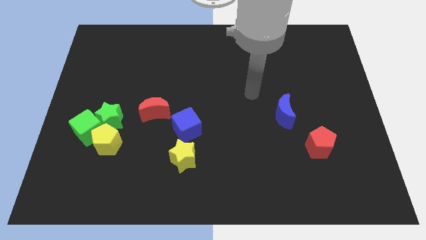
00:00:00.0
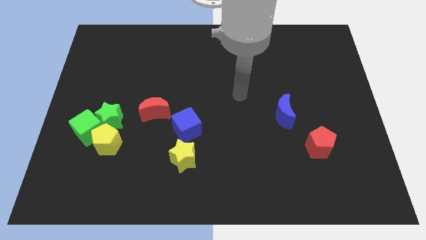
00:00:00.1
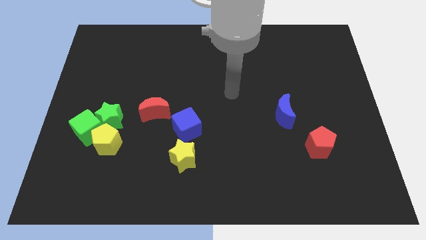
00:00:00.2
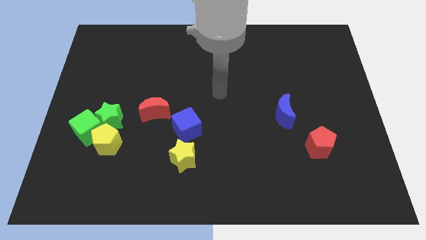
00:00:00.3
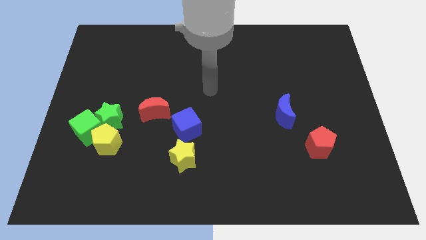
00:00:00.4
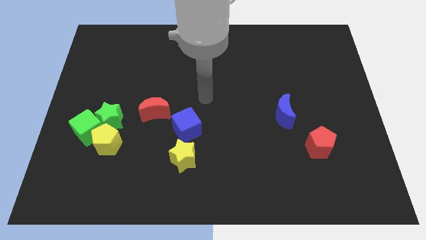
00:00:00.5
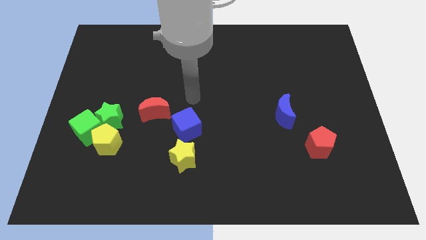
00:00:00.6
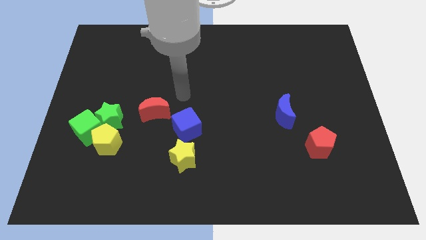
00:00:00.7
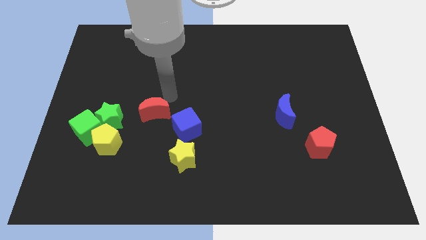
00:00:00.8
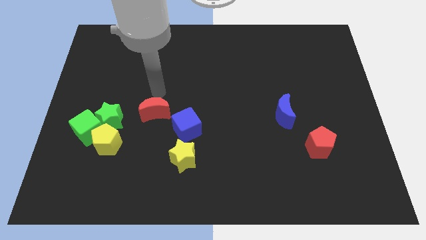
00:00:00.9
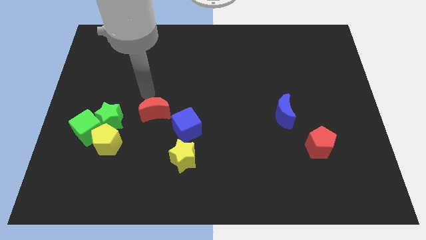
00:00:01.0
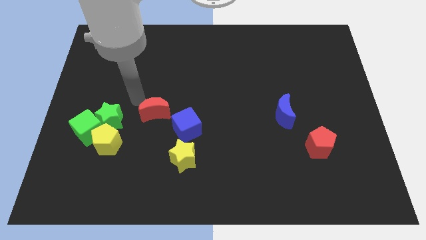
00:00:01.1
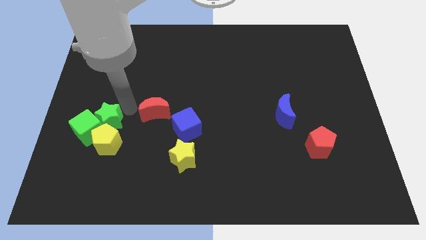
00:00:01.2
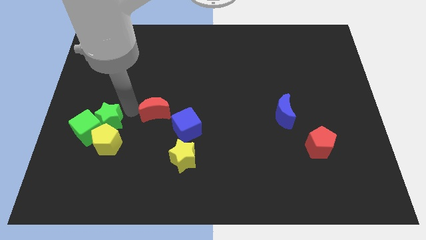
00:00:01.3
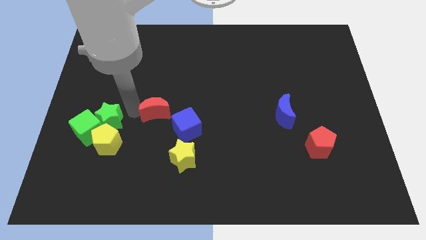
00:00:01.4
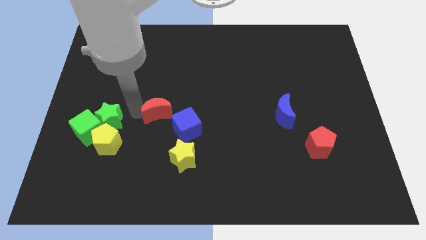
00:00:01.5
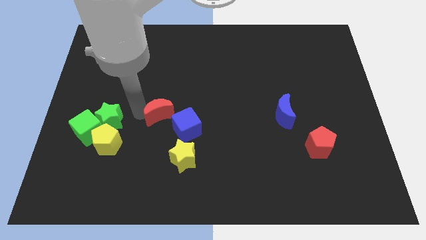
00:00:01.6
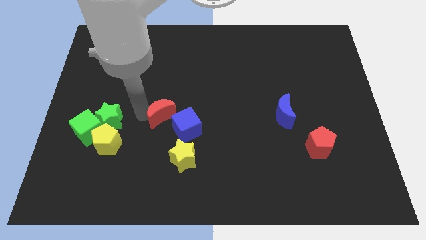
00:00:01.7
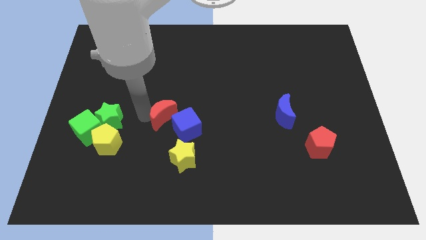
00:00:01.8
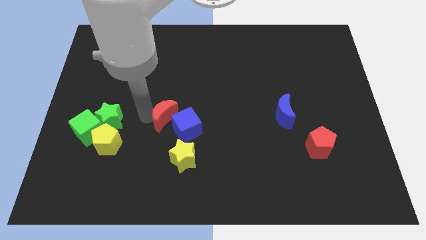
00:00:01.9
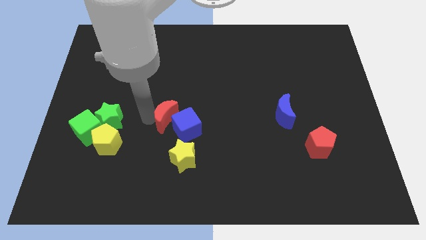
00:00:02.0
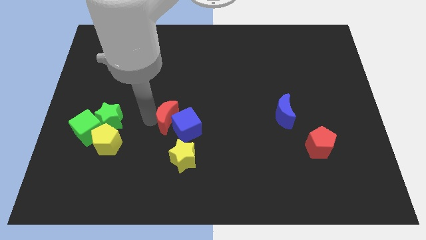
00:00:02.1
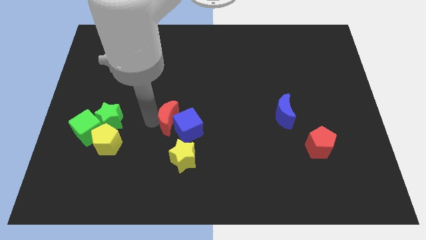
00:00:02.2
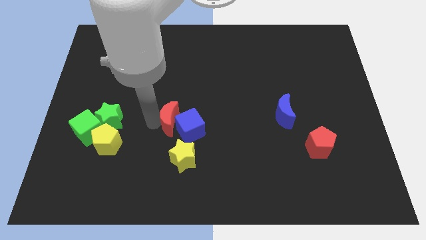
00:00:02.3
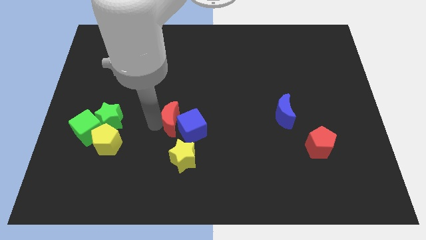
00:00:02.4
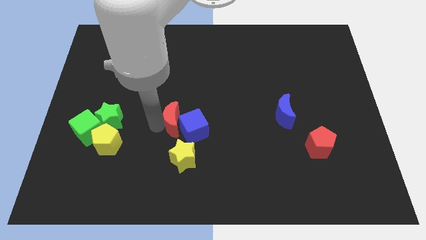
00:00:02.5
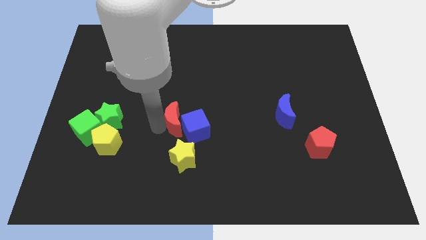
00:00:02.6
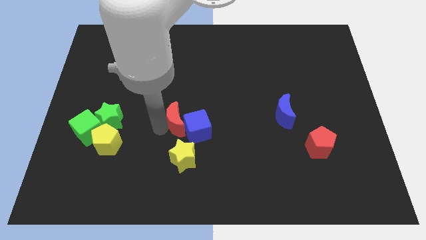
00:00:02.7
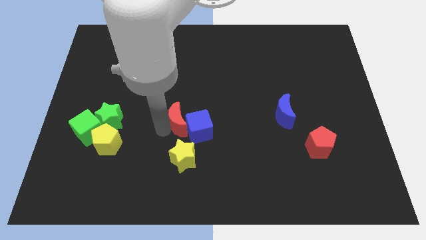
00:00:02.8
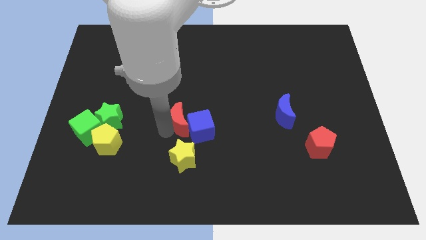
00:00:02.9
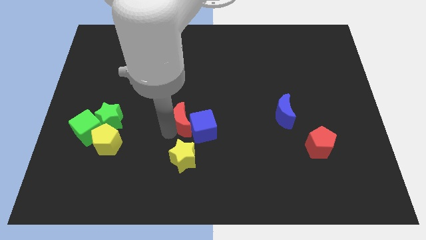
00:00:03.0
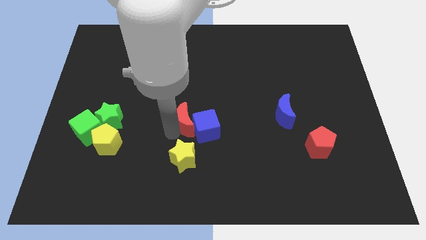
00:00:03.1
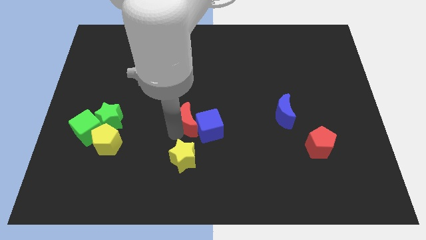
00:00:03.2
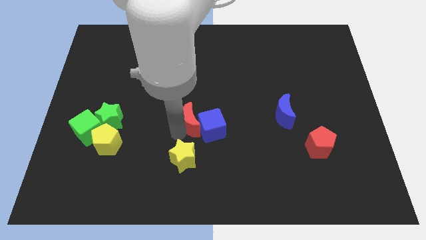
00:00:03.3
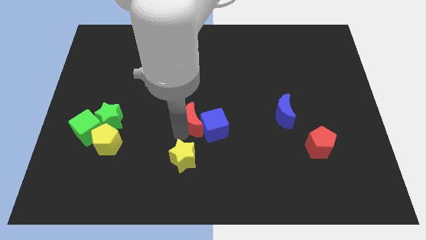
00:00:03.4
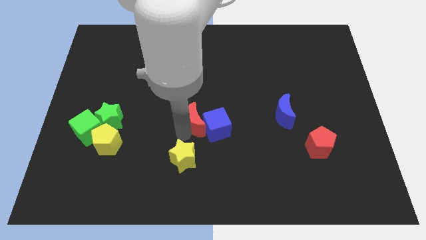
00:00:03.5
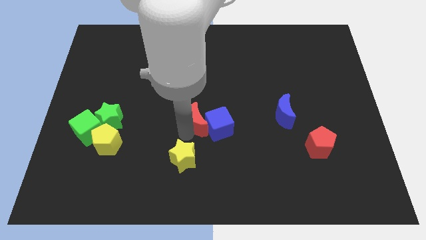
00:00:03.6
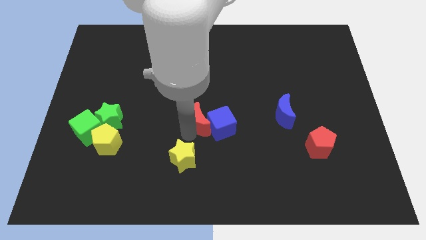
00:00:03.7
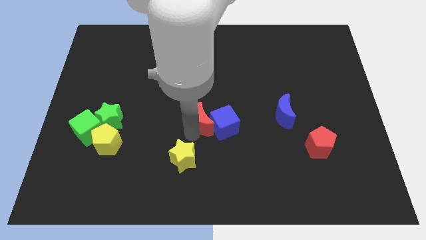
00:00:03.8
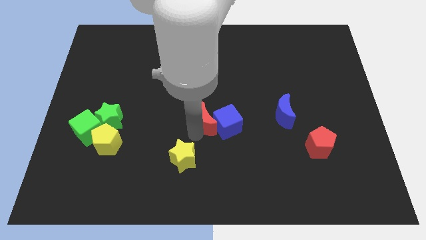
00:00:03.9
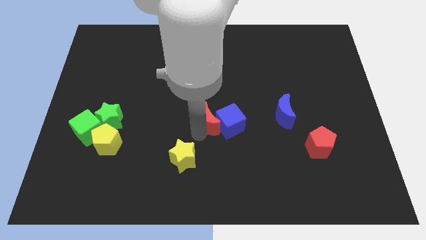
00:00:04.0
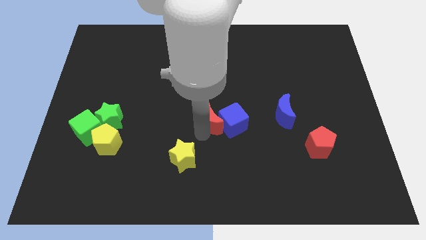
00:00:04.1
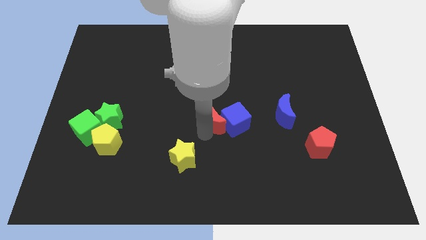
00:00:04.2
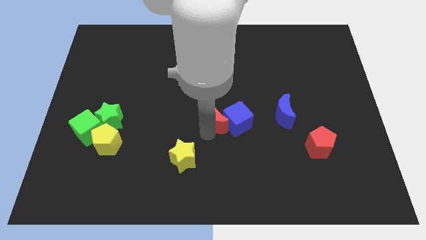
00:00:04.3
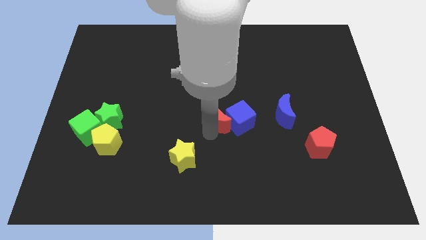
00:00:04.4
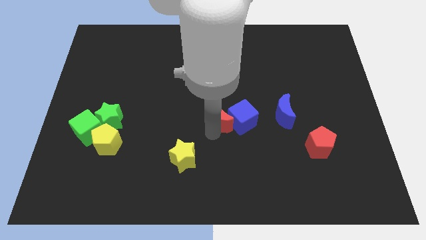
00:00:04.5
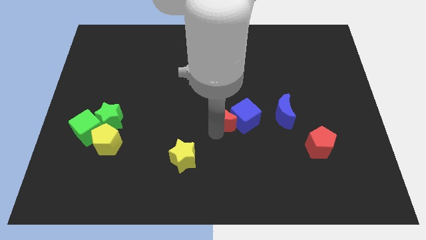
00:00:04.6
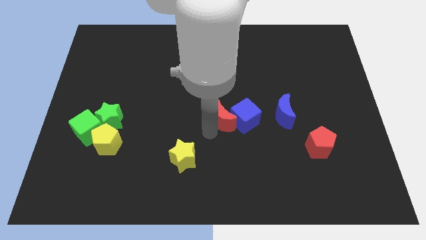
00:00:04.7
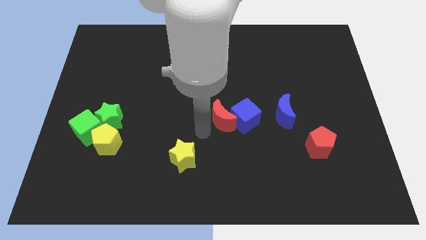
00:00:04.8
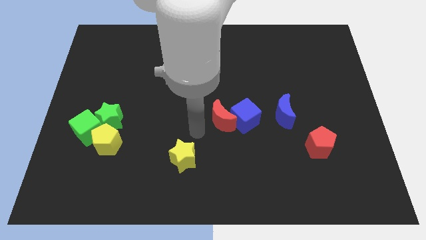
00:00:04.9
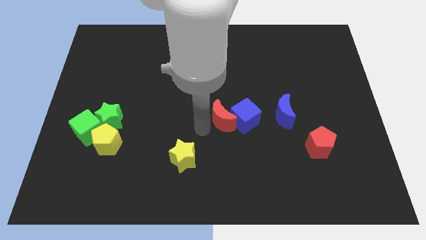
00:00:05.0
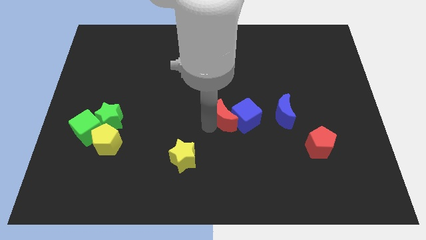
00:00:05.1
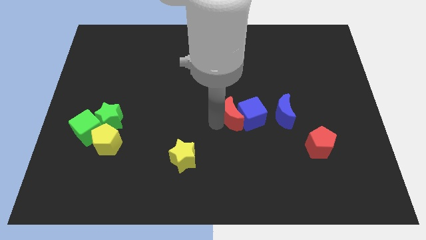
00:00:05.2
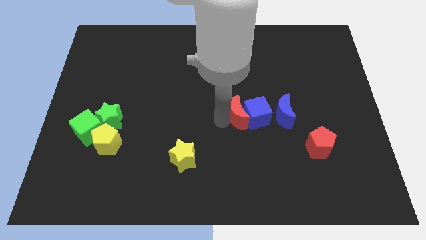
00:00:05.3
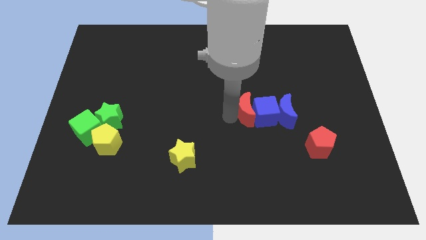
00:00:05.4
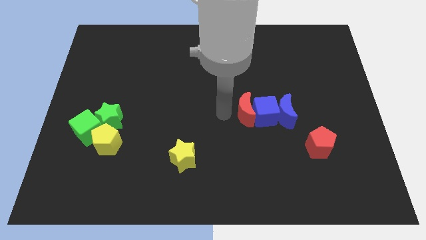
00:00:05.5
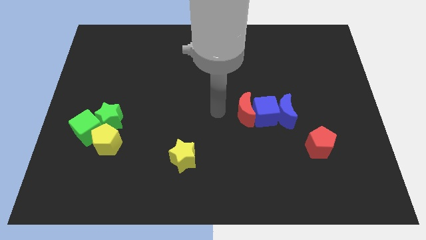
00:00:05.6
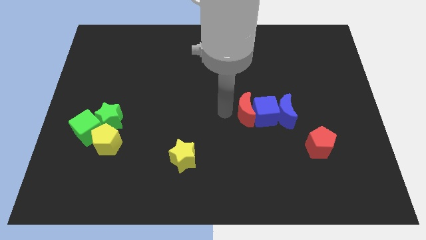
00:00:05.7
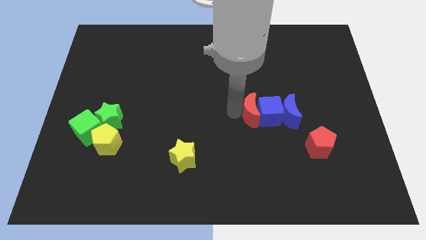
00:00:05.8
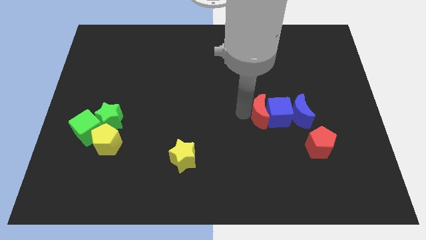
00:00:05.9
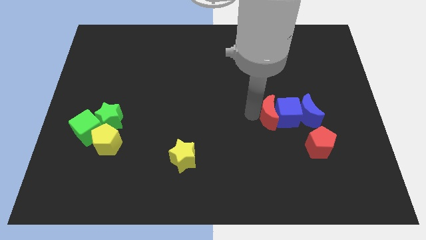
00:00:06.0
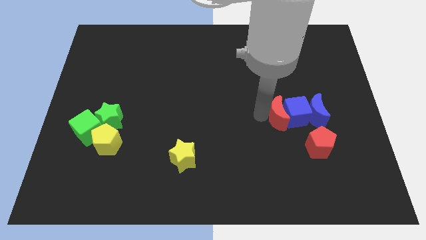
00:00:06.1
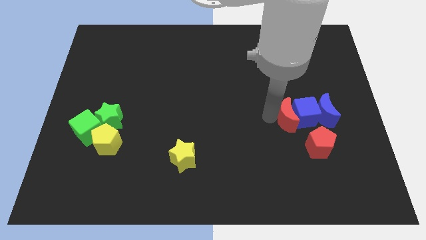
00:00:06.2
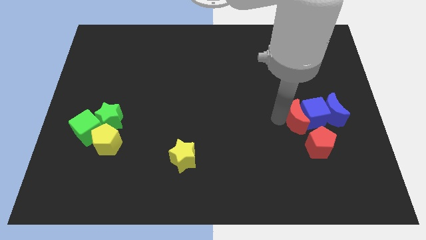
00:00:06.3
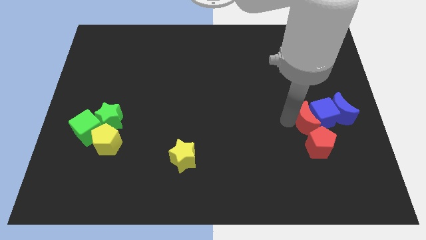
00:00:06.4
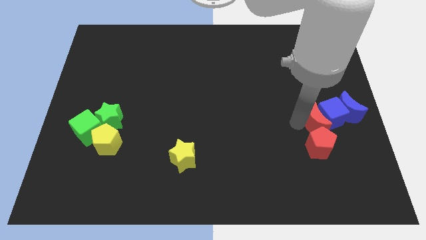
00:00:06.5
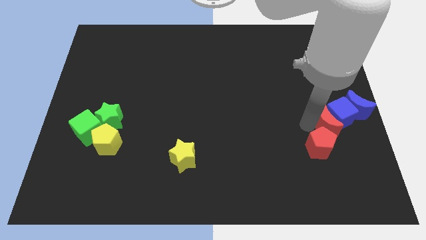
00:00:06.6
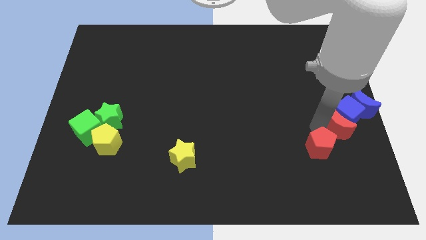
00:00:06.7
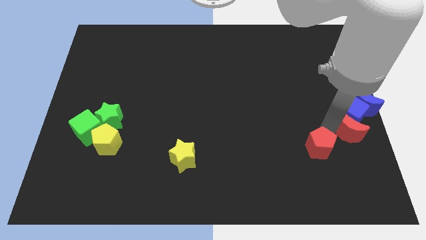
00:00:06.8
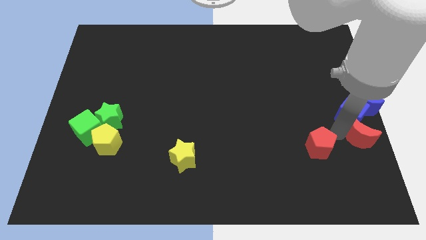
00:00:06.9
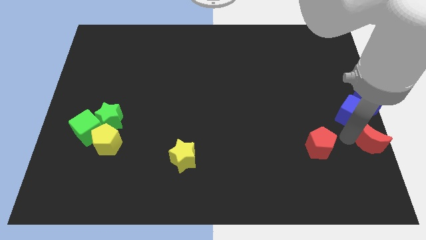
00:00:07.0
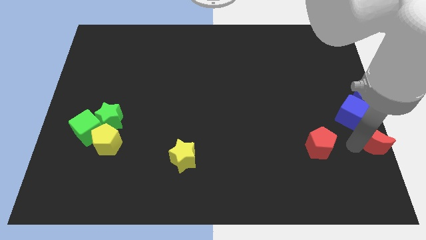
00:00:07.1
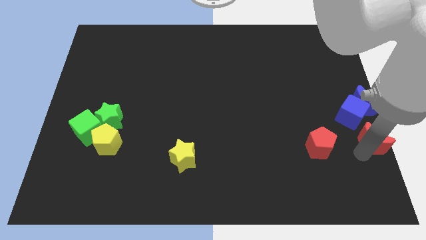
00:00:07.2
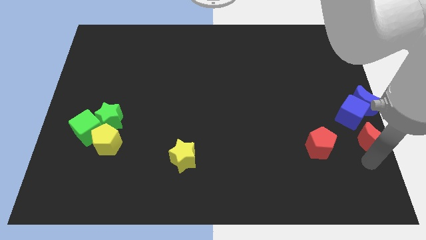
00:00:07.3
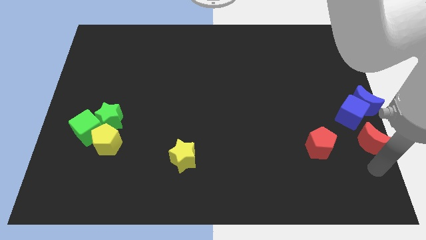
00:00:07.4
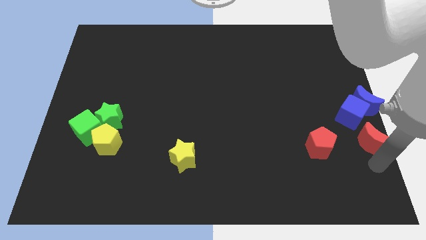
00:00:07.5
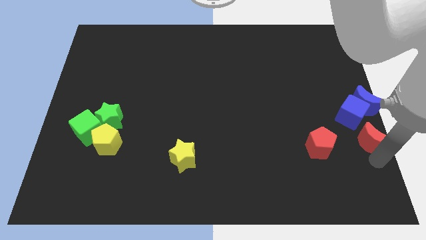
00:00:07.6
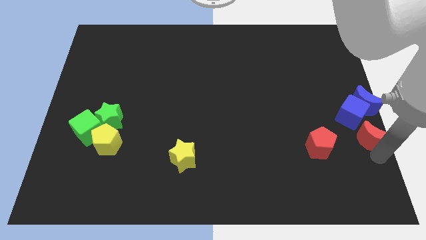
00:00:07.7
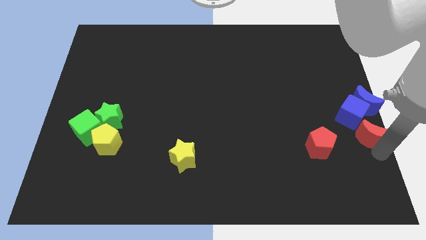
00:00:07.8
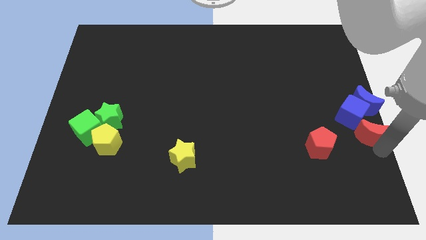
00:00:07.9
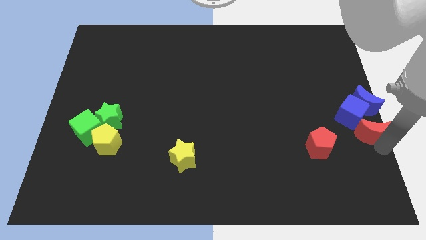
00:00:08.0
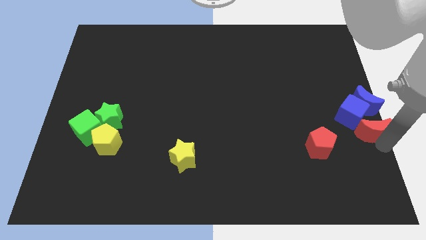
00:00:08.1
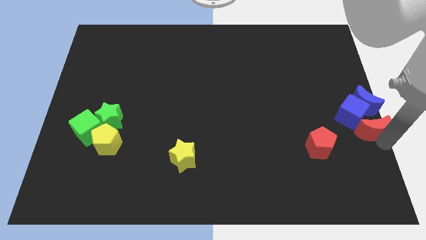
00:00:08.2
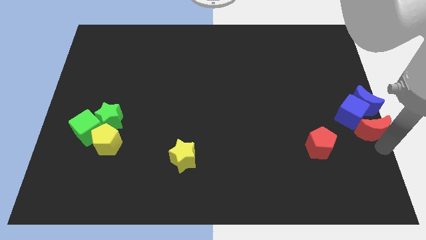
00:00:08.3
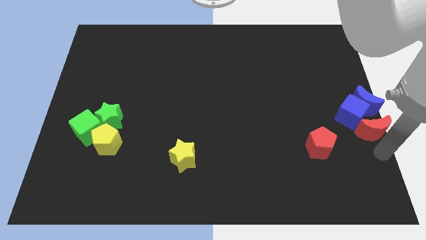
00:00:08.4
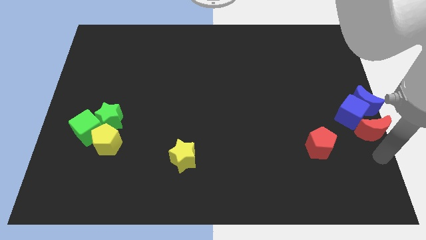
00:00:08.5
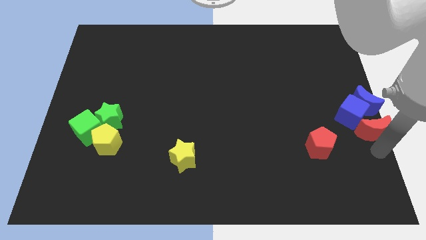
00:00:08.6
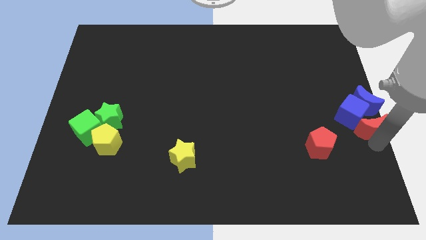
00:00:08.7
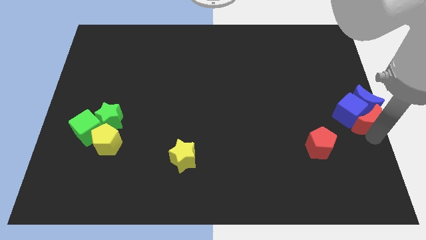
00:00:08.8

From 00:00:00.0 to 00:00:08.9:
slide the red moon close to the blue moon
